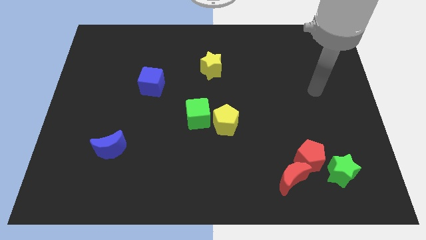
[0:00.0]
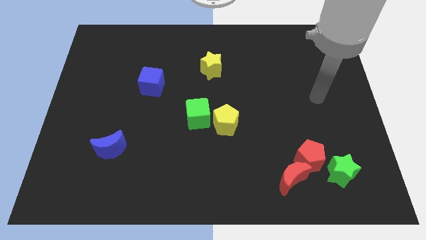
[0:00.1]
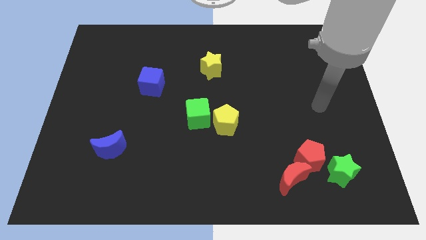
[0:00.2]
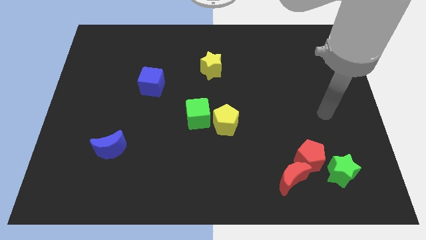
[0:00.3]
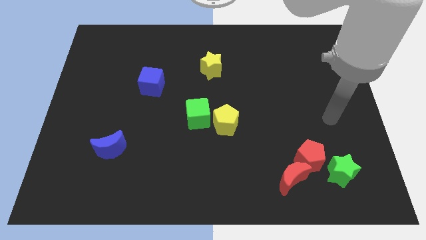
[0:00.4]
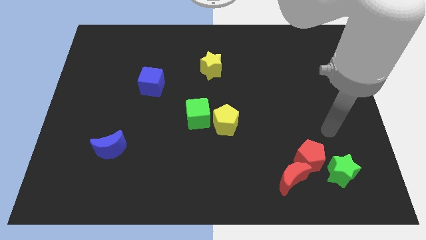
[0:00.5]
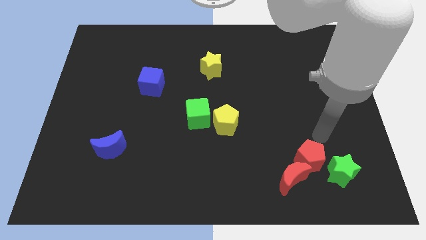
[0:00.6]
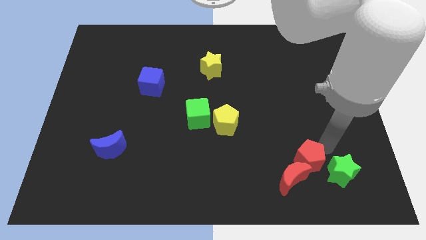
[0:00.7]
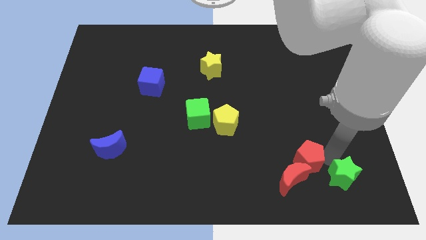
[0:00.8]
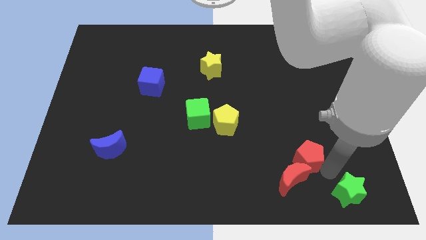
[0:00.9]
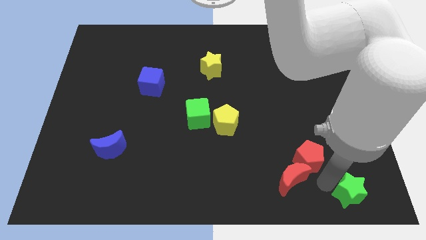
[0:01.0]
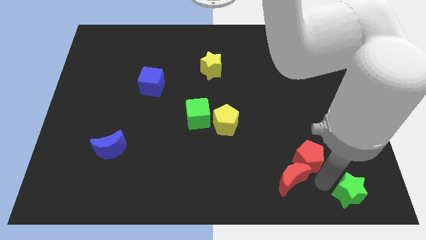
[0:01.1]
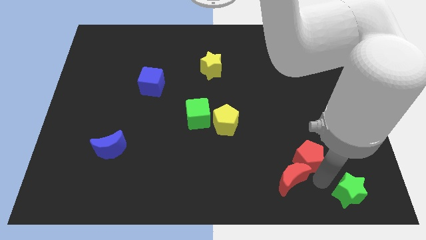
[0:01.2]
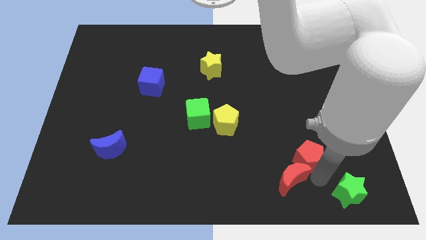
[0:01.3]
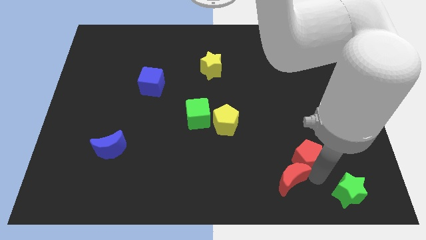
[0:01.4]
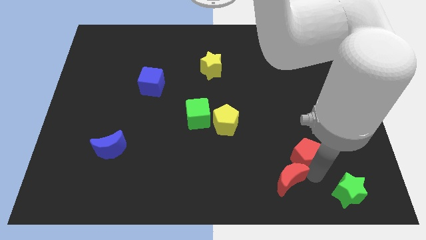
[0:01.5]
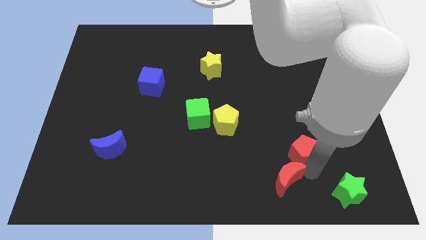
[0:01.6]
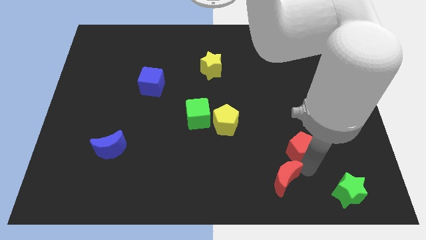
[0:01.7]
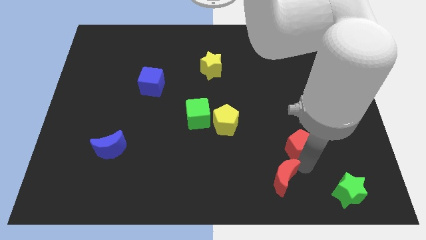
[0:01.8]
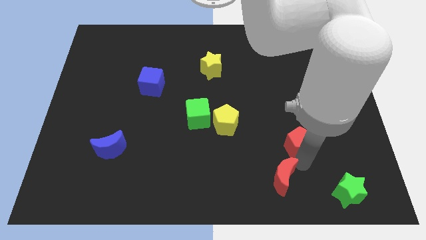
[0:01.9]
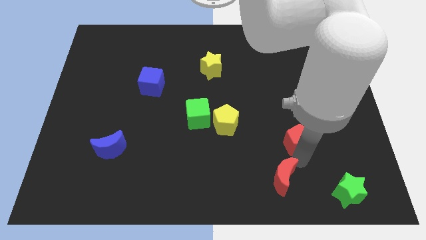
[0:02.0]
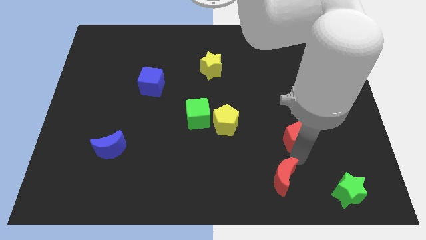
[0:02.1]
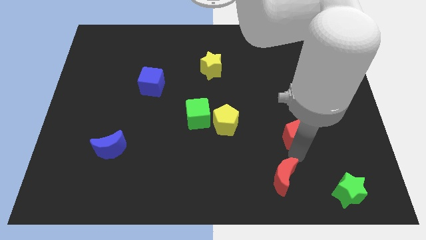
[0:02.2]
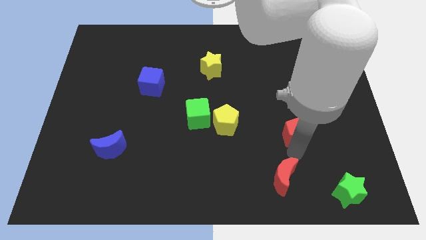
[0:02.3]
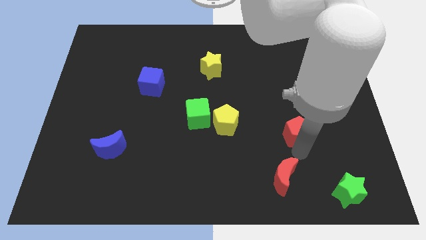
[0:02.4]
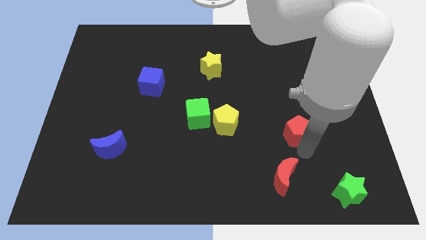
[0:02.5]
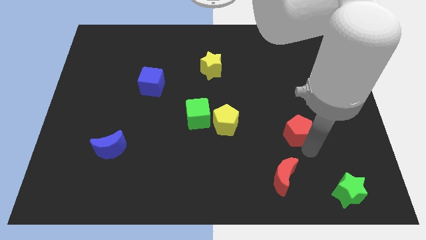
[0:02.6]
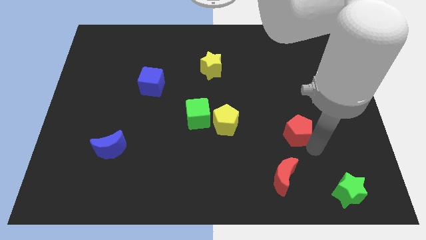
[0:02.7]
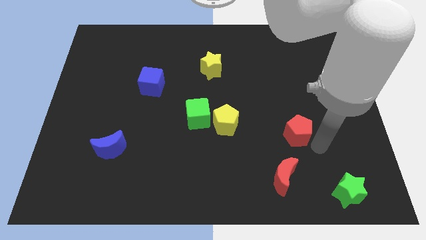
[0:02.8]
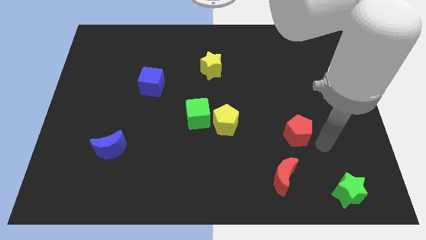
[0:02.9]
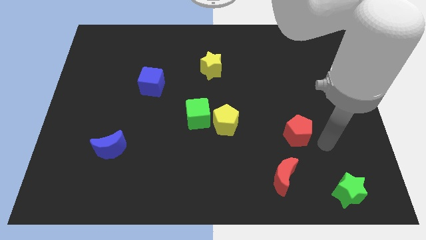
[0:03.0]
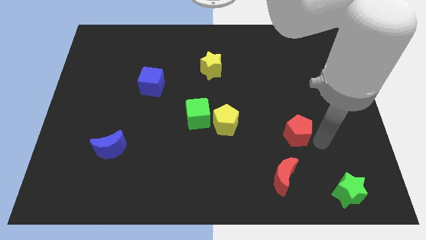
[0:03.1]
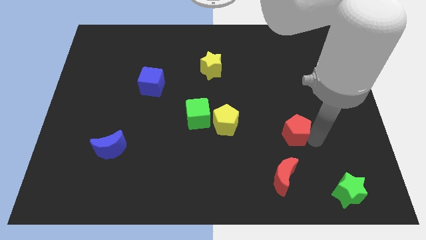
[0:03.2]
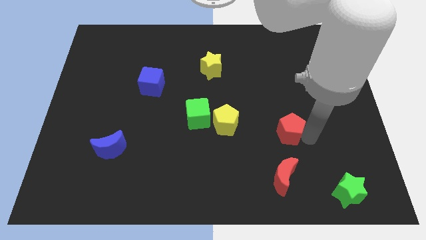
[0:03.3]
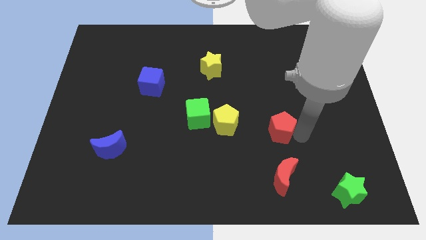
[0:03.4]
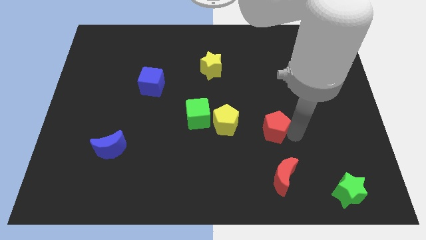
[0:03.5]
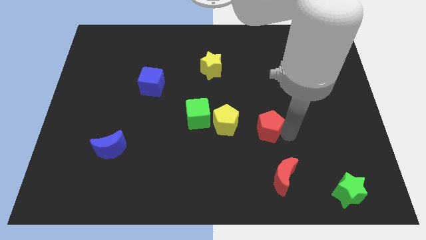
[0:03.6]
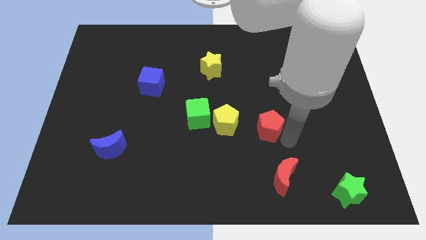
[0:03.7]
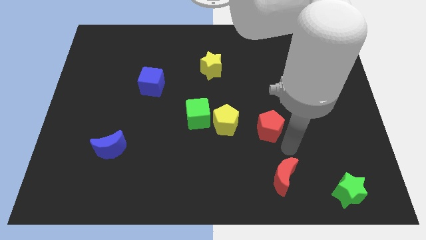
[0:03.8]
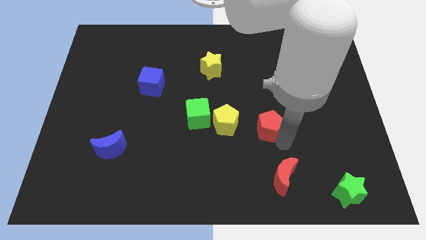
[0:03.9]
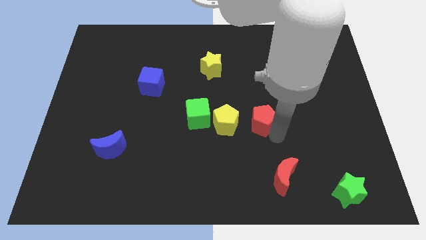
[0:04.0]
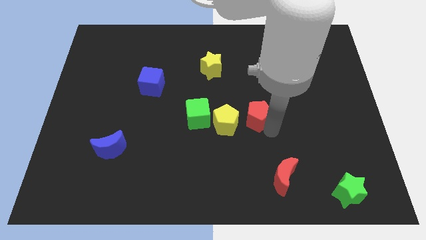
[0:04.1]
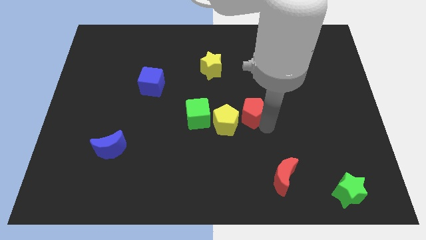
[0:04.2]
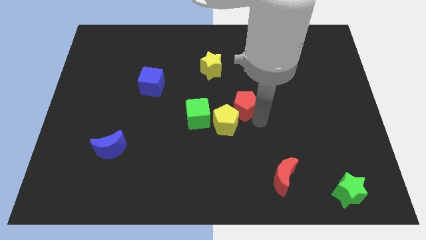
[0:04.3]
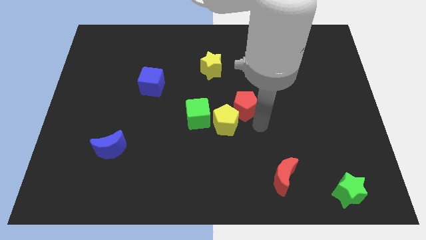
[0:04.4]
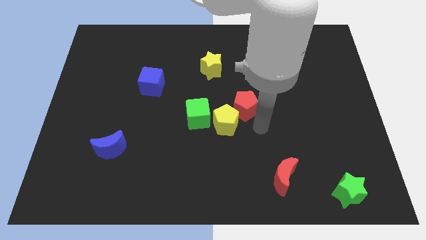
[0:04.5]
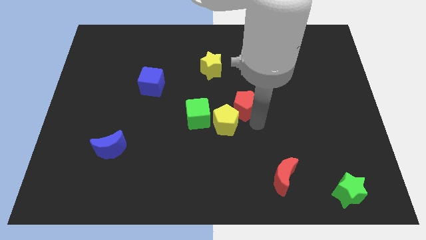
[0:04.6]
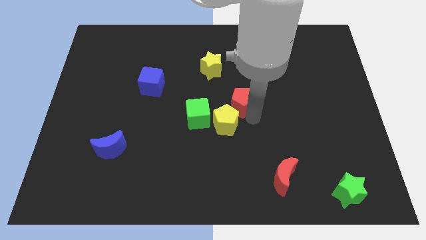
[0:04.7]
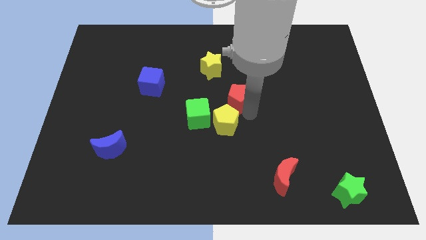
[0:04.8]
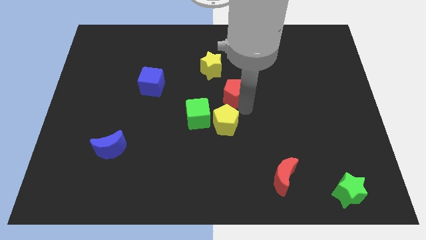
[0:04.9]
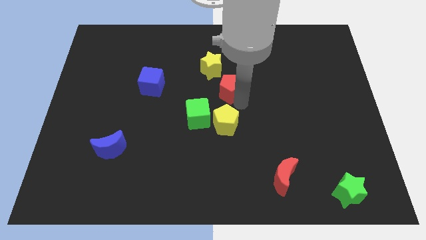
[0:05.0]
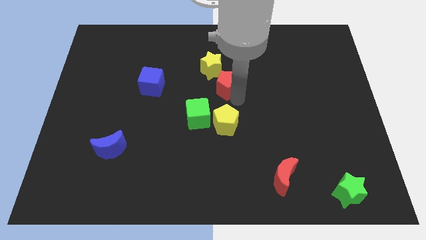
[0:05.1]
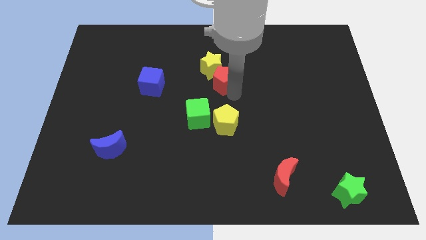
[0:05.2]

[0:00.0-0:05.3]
push the red pentagon next to the yellow star

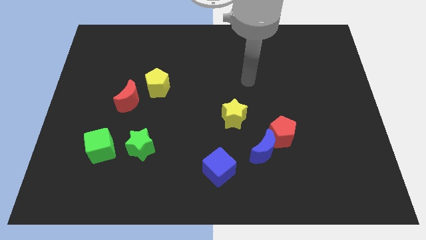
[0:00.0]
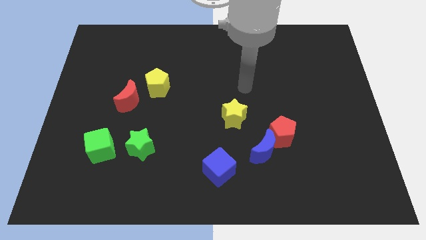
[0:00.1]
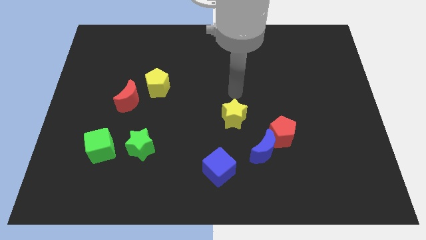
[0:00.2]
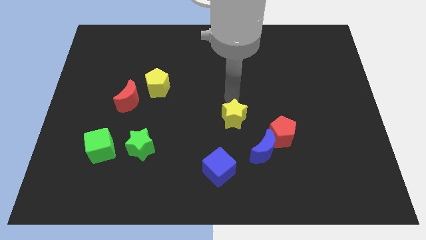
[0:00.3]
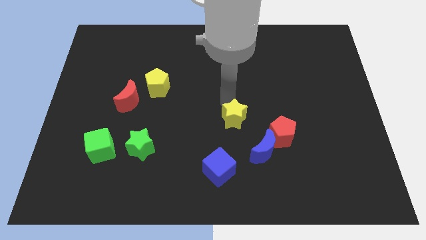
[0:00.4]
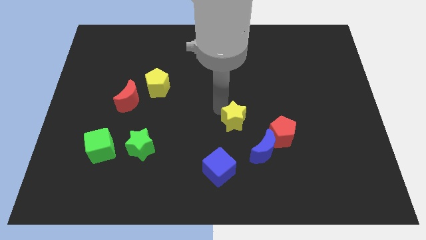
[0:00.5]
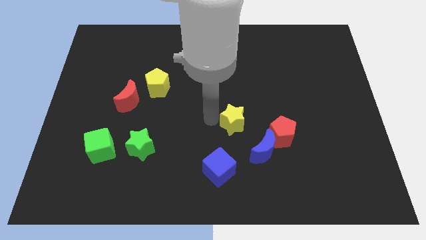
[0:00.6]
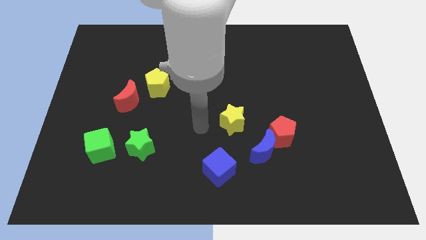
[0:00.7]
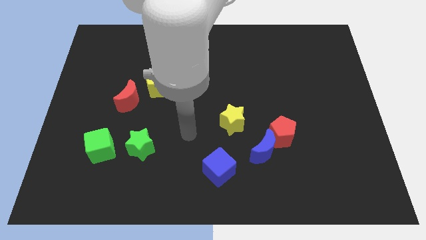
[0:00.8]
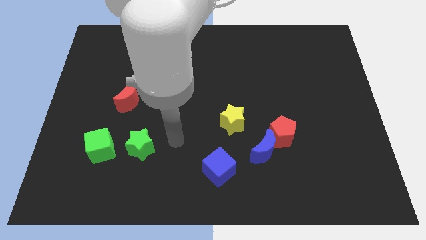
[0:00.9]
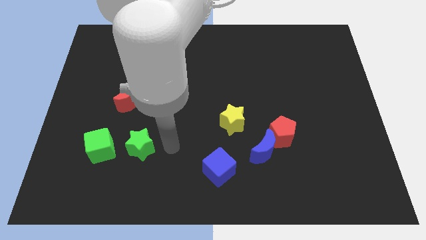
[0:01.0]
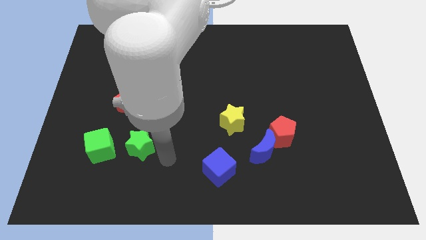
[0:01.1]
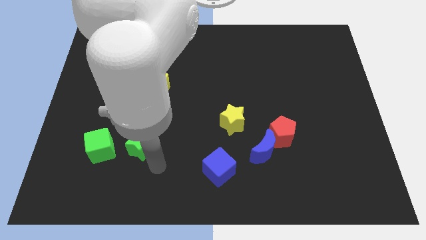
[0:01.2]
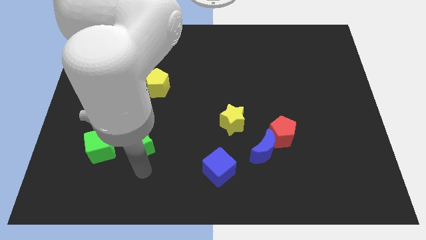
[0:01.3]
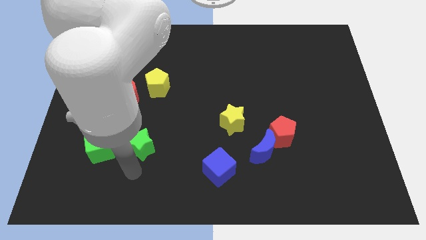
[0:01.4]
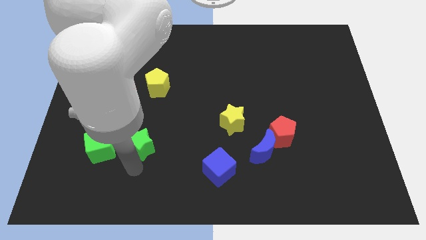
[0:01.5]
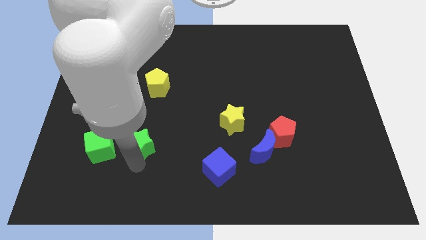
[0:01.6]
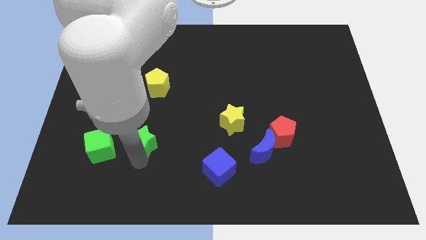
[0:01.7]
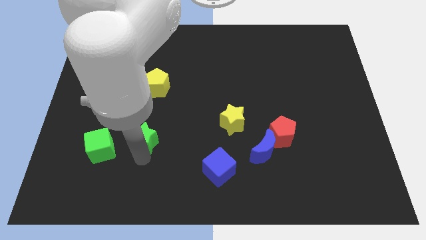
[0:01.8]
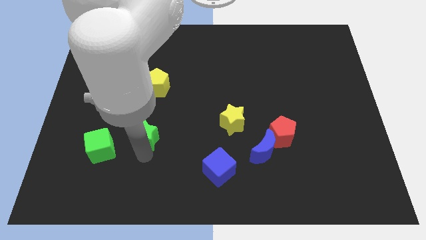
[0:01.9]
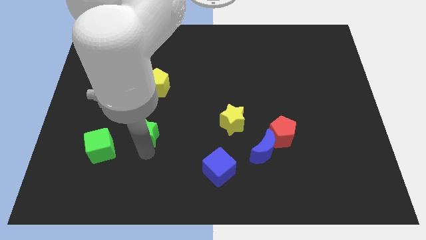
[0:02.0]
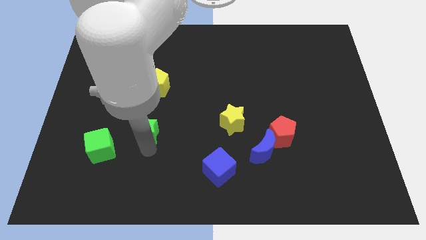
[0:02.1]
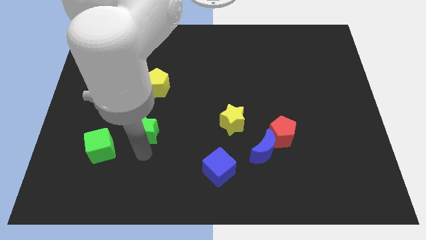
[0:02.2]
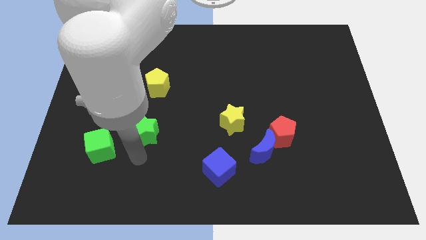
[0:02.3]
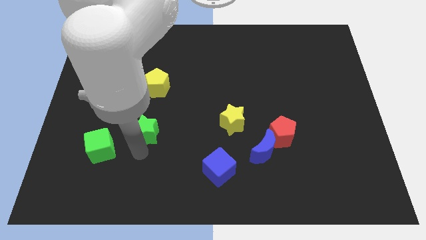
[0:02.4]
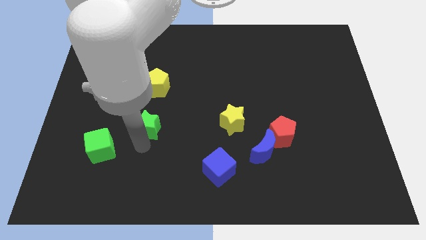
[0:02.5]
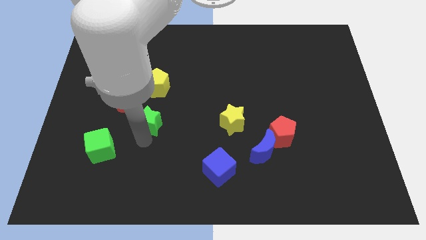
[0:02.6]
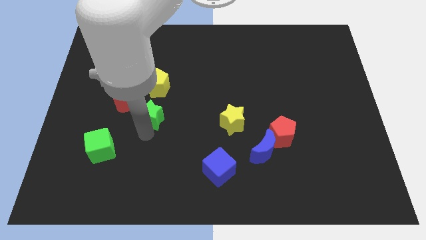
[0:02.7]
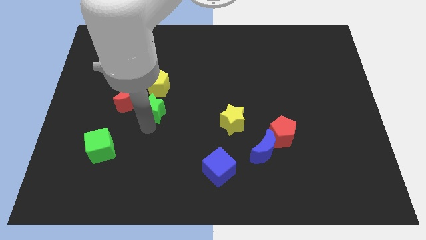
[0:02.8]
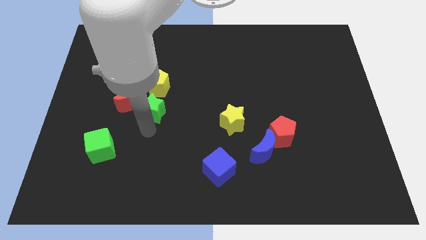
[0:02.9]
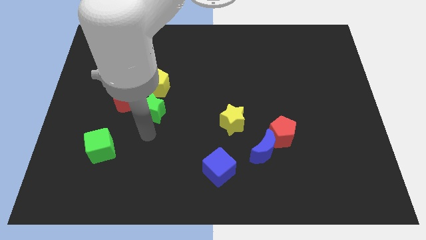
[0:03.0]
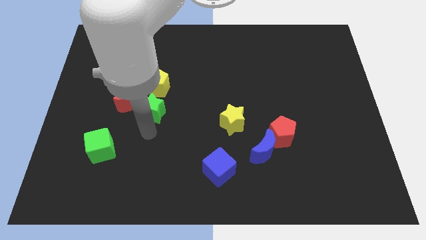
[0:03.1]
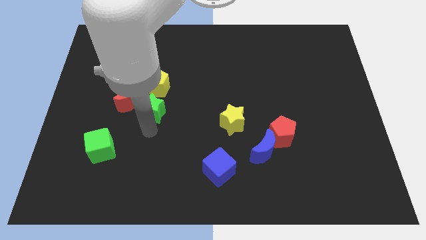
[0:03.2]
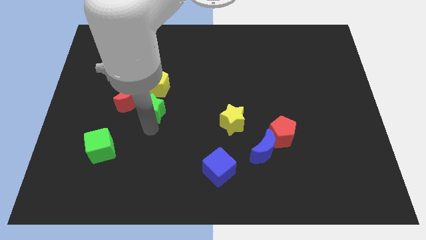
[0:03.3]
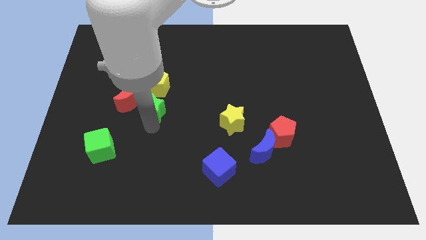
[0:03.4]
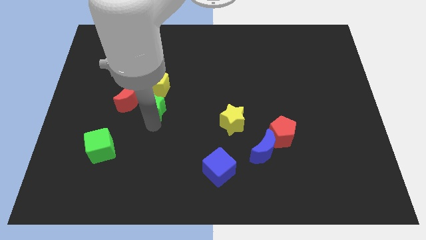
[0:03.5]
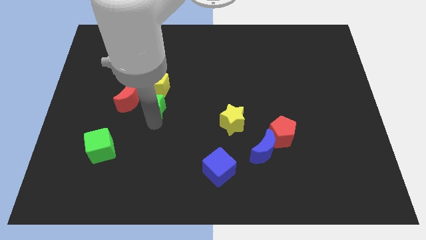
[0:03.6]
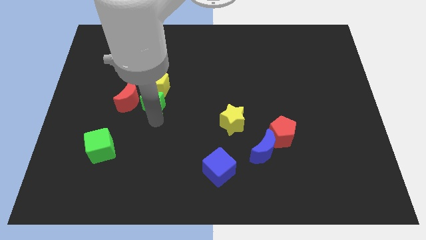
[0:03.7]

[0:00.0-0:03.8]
put the green star close to the yellow pentagon
